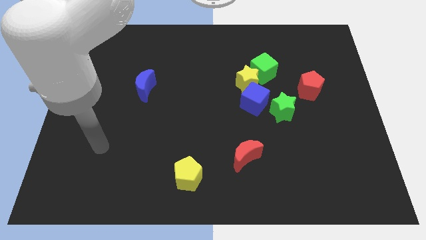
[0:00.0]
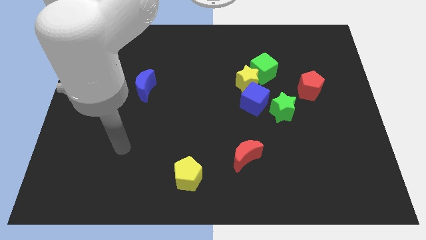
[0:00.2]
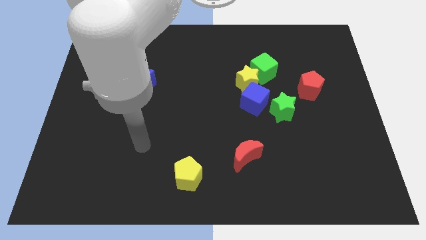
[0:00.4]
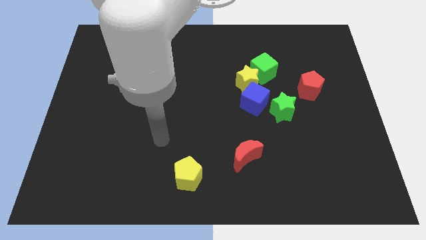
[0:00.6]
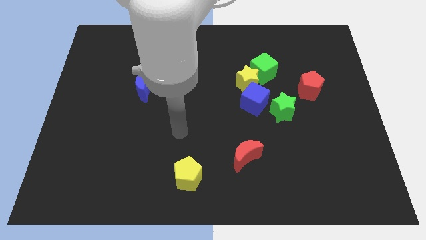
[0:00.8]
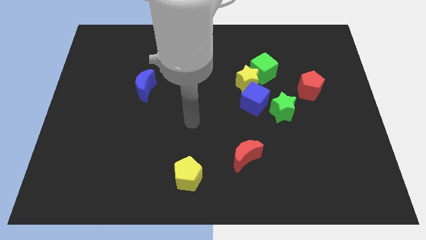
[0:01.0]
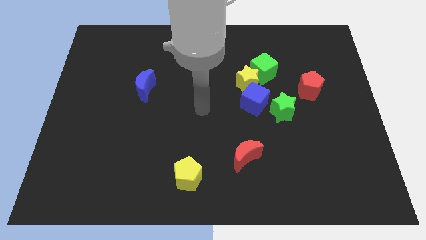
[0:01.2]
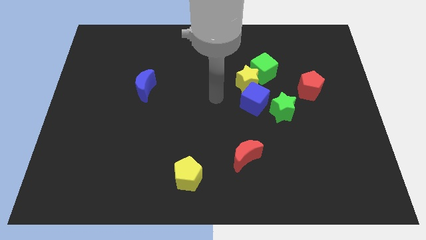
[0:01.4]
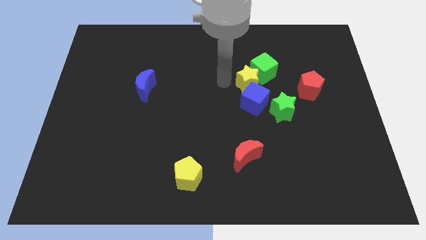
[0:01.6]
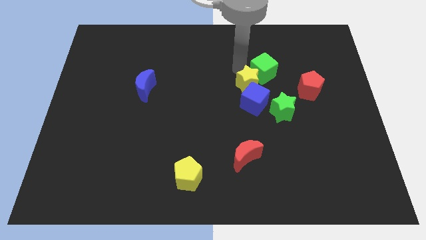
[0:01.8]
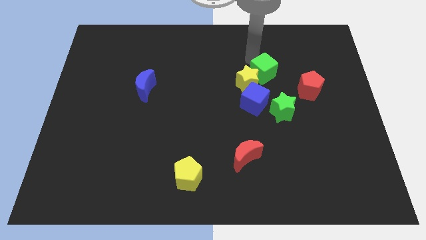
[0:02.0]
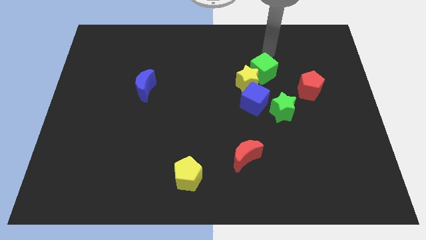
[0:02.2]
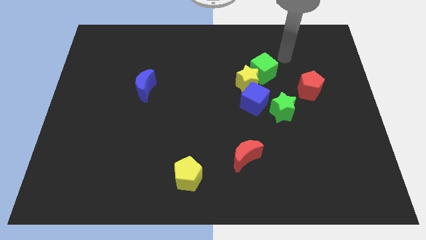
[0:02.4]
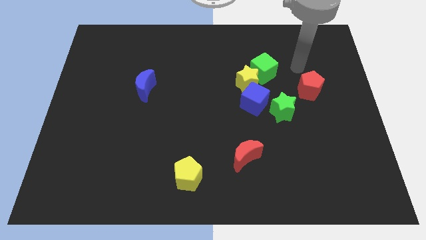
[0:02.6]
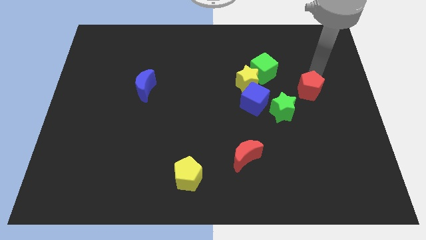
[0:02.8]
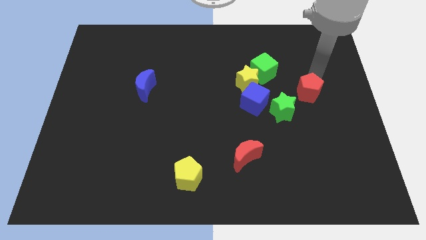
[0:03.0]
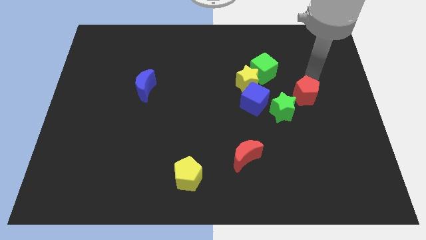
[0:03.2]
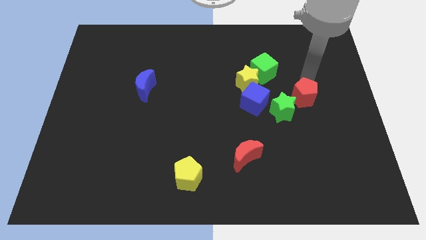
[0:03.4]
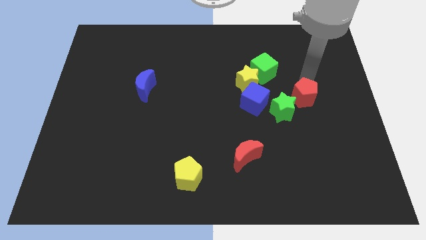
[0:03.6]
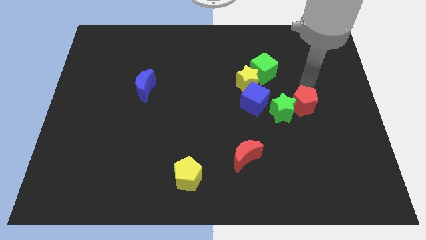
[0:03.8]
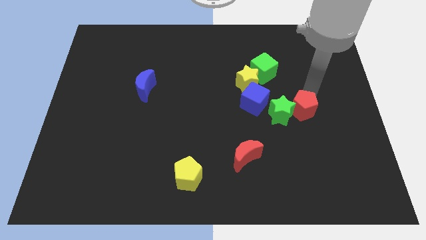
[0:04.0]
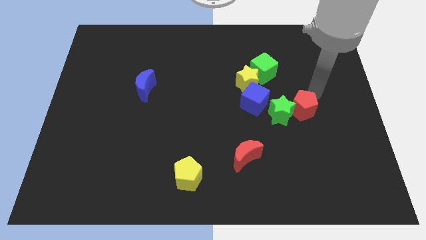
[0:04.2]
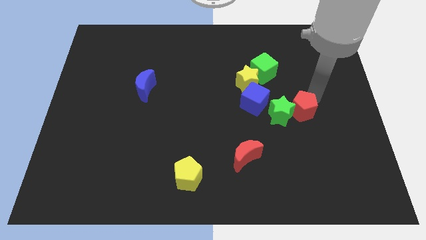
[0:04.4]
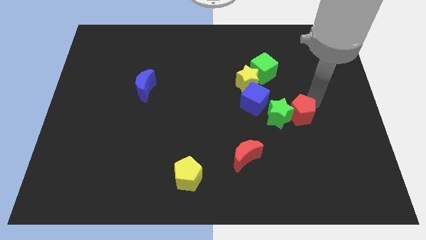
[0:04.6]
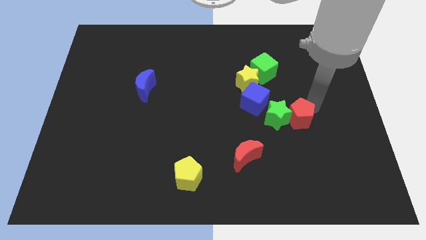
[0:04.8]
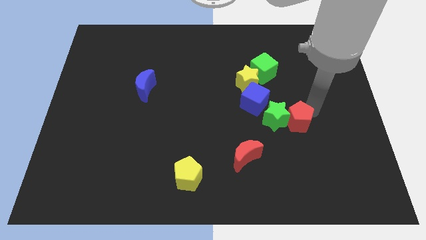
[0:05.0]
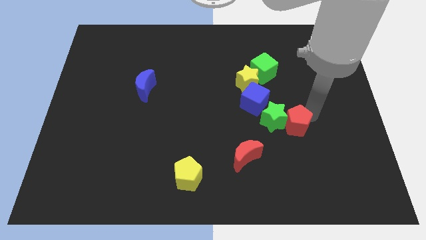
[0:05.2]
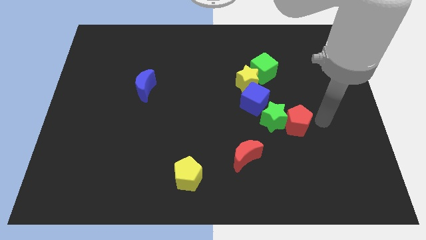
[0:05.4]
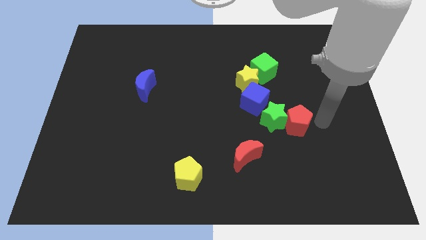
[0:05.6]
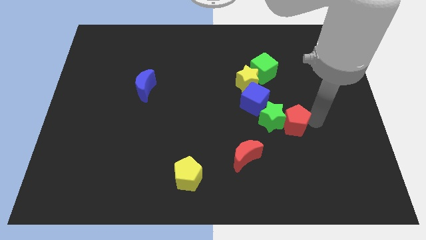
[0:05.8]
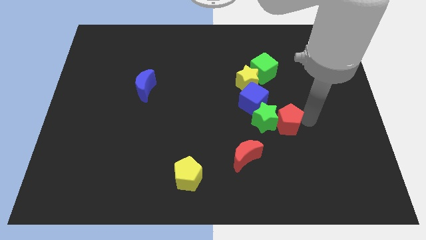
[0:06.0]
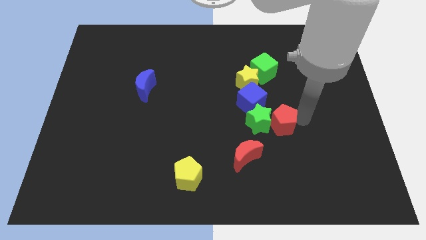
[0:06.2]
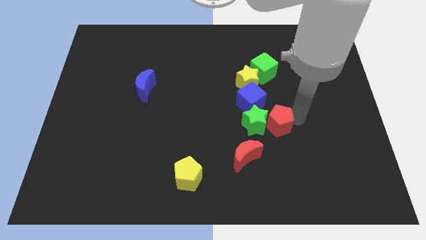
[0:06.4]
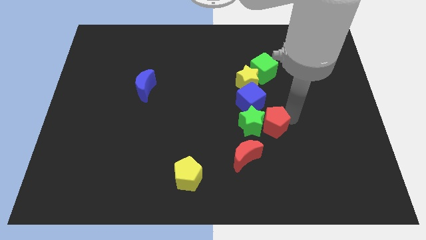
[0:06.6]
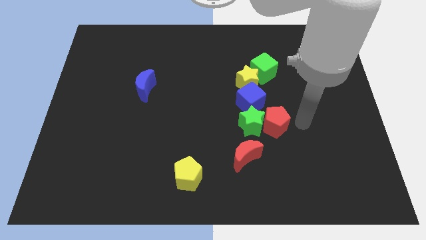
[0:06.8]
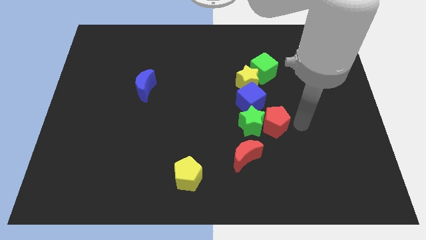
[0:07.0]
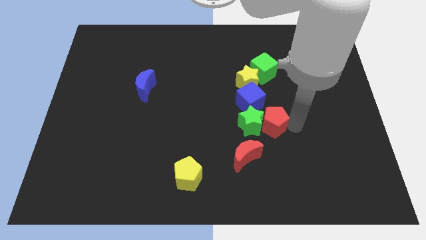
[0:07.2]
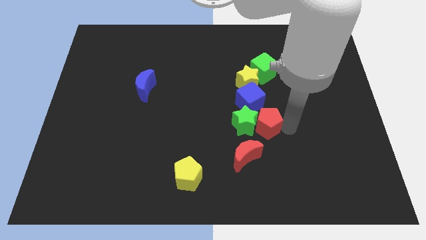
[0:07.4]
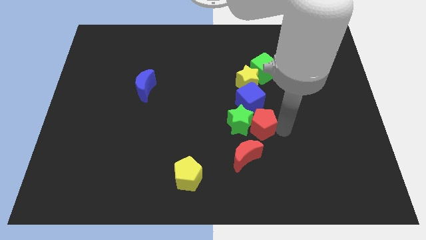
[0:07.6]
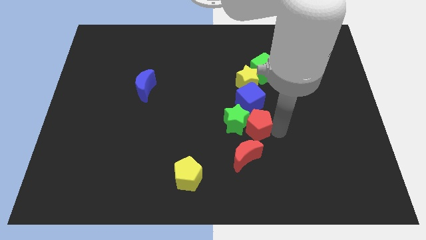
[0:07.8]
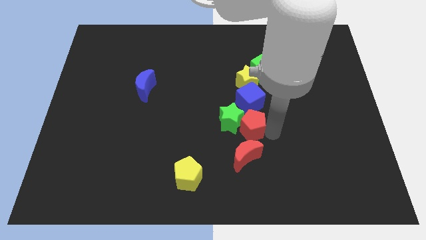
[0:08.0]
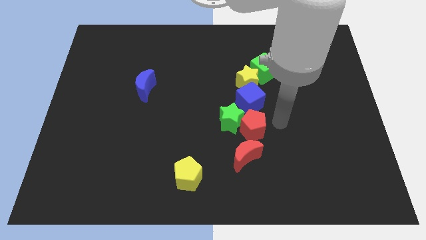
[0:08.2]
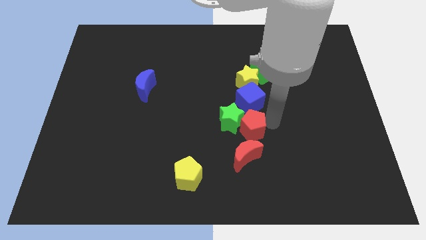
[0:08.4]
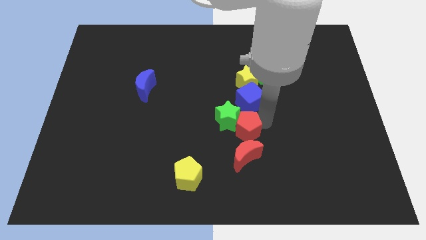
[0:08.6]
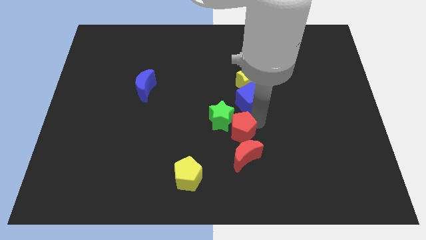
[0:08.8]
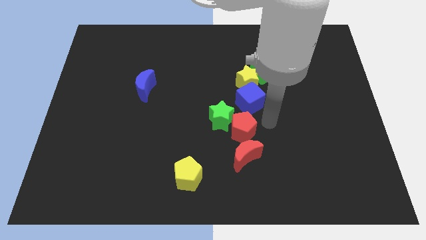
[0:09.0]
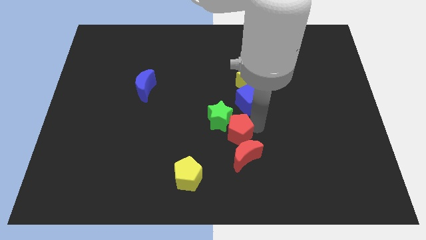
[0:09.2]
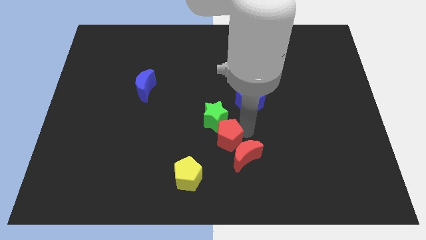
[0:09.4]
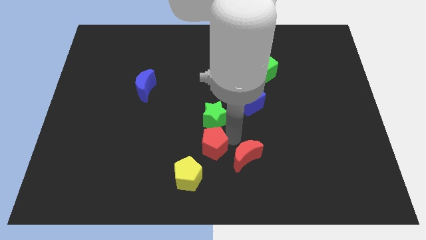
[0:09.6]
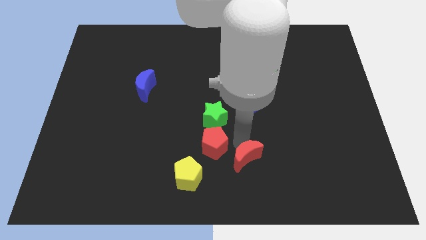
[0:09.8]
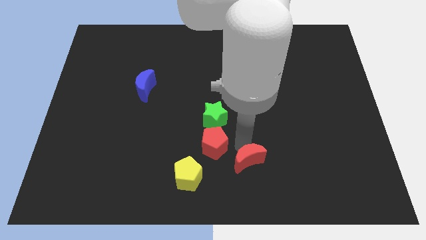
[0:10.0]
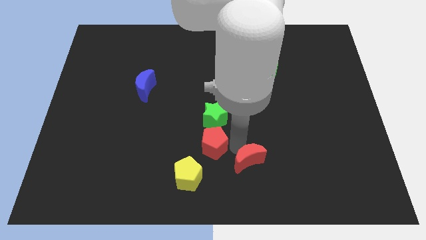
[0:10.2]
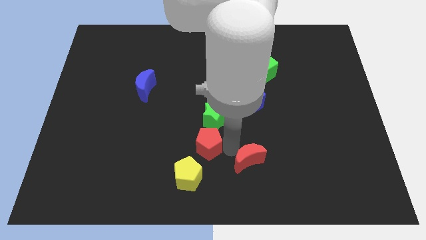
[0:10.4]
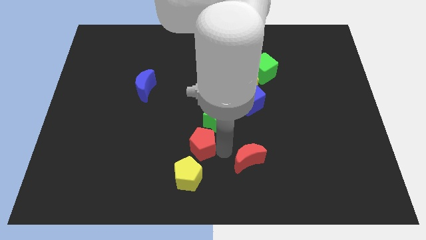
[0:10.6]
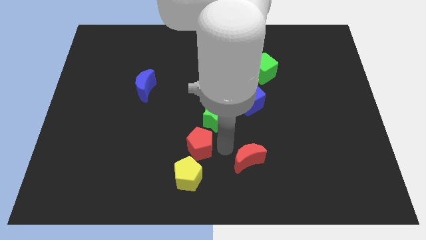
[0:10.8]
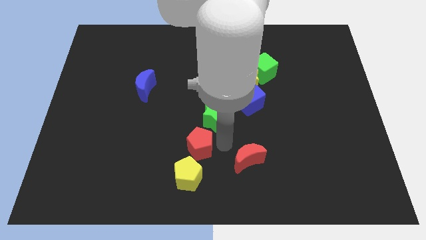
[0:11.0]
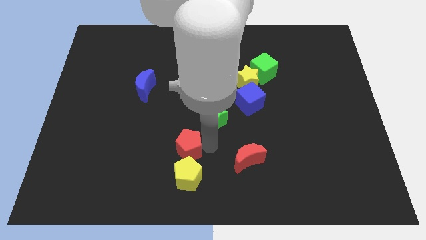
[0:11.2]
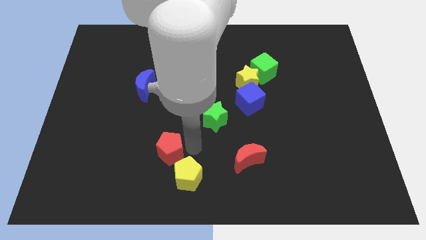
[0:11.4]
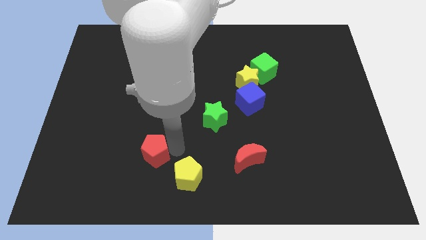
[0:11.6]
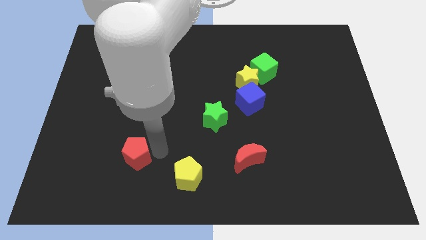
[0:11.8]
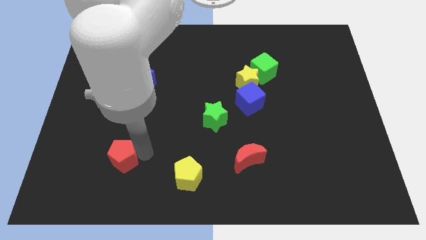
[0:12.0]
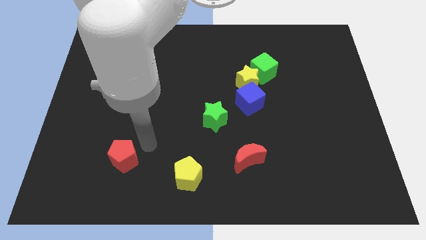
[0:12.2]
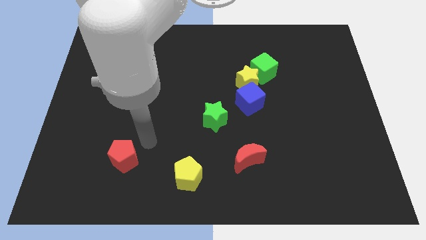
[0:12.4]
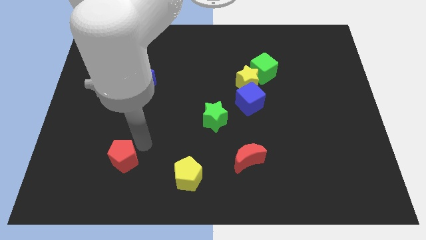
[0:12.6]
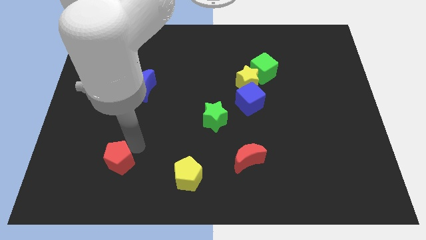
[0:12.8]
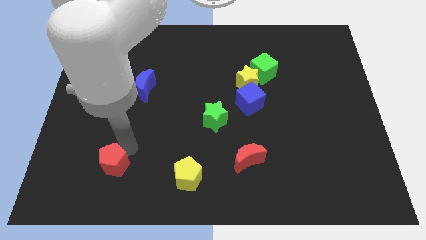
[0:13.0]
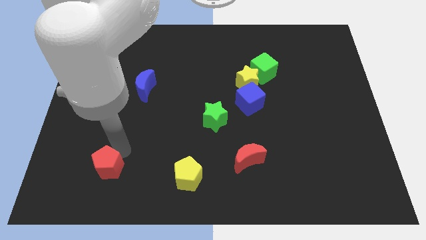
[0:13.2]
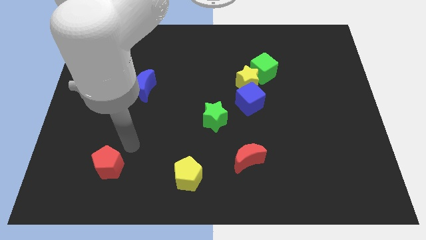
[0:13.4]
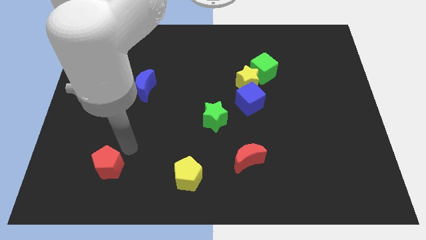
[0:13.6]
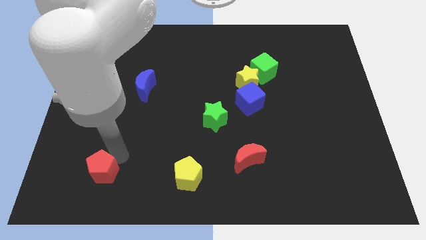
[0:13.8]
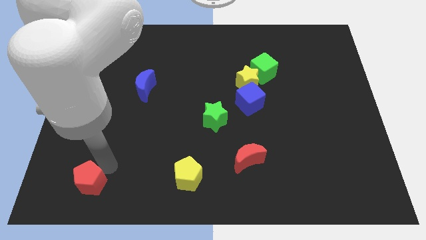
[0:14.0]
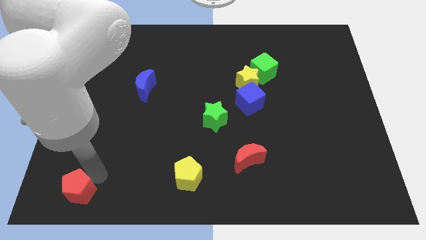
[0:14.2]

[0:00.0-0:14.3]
put the red pentagon to the bottom left of the board
